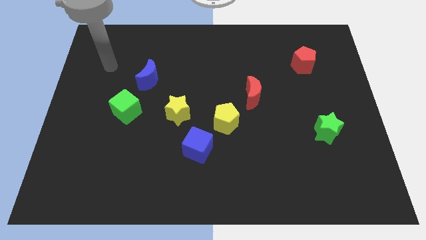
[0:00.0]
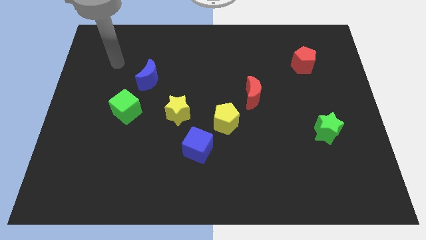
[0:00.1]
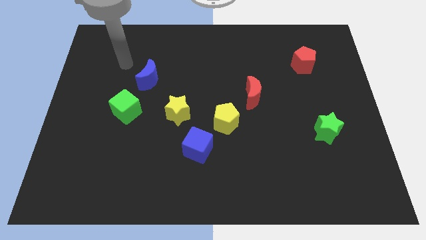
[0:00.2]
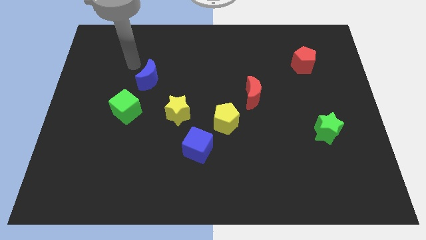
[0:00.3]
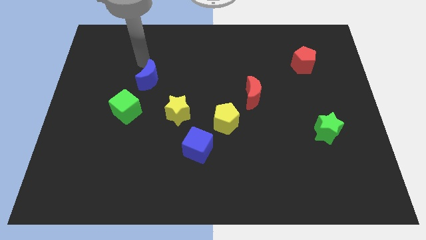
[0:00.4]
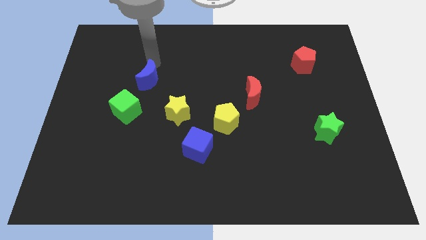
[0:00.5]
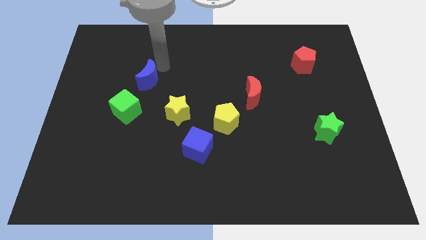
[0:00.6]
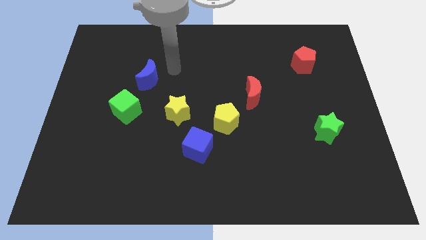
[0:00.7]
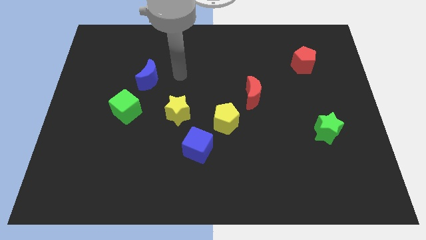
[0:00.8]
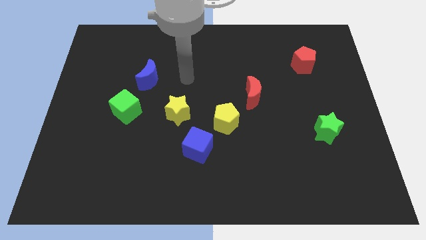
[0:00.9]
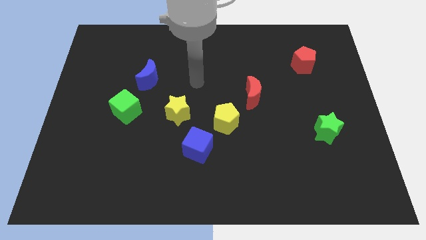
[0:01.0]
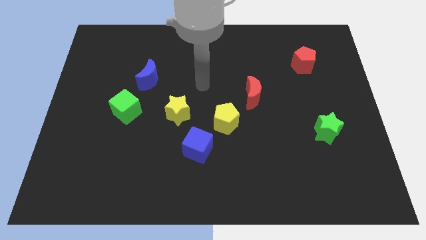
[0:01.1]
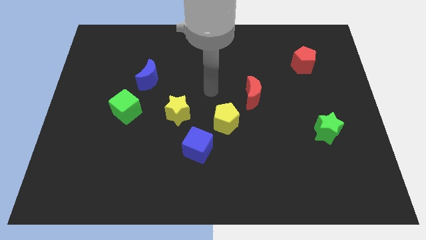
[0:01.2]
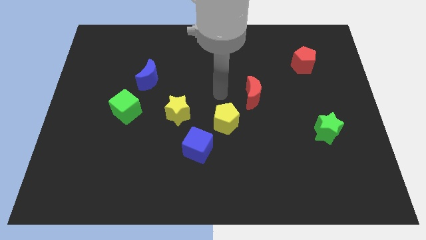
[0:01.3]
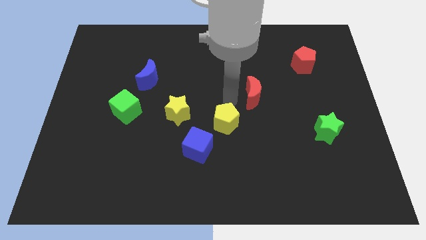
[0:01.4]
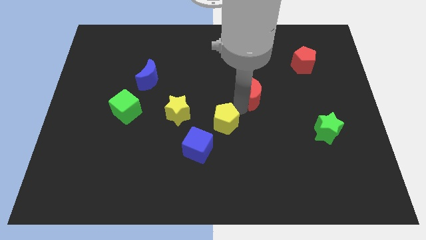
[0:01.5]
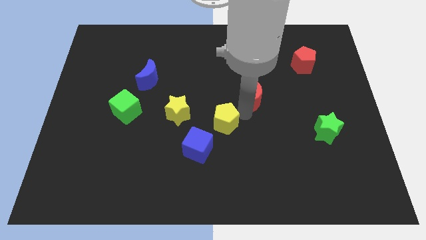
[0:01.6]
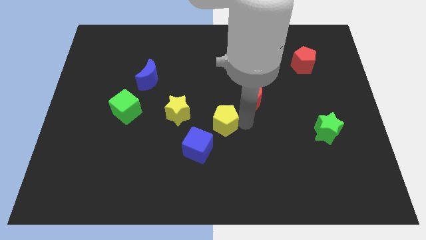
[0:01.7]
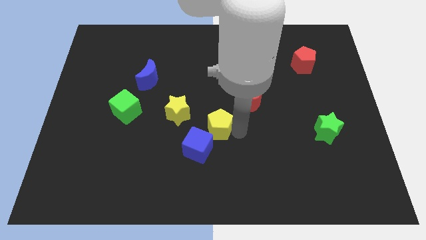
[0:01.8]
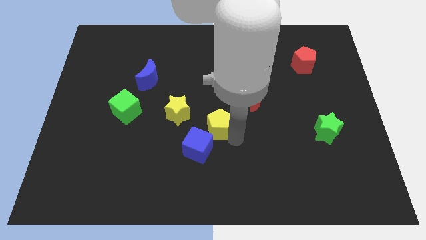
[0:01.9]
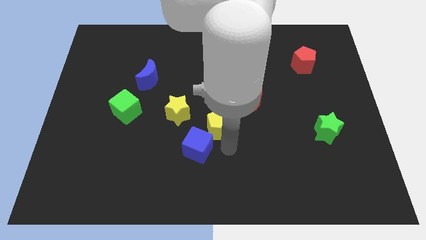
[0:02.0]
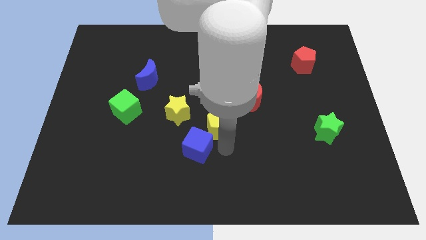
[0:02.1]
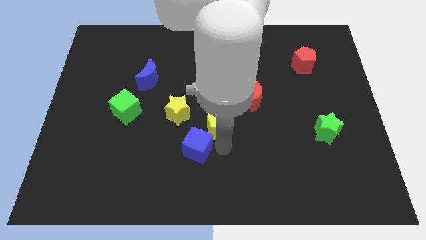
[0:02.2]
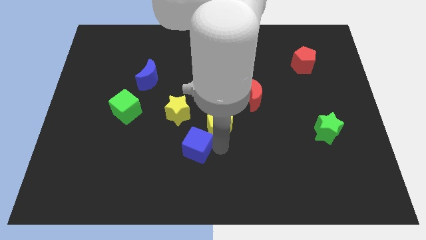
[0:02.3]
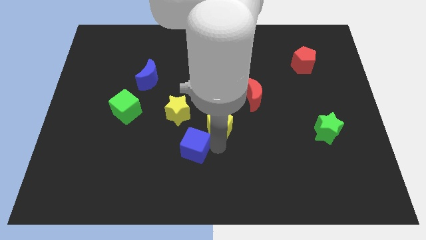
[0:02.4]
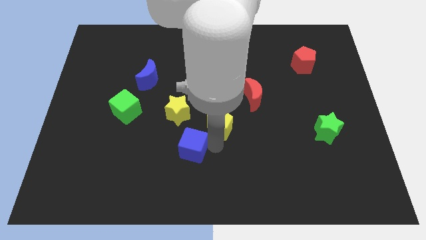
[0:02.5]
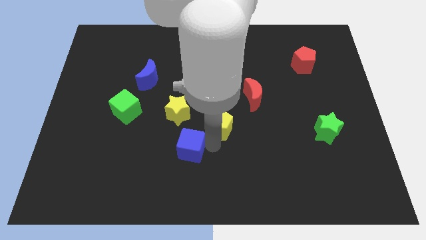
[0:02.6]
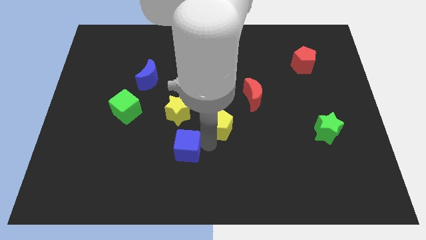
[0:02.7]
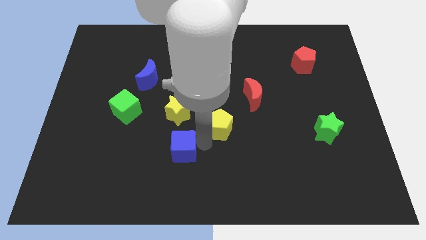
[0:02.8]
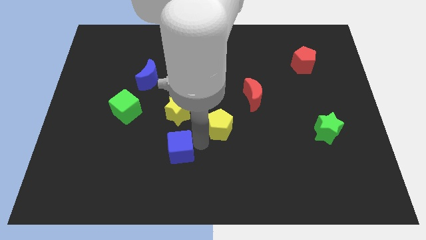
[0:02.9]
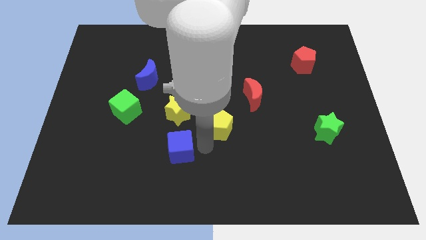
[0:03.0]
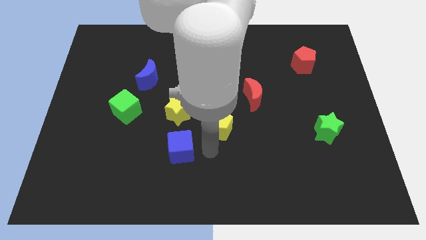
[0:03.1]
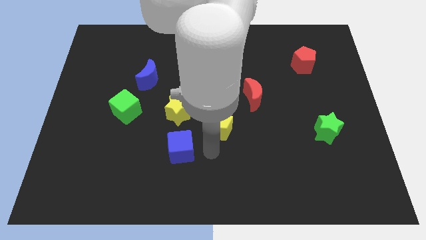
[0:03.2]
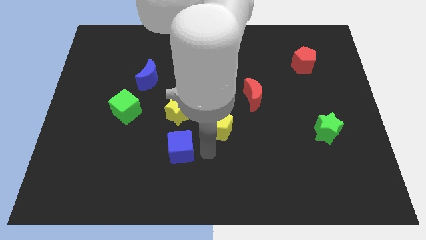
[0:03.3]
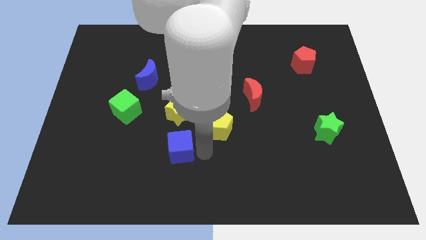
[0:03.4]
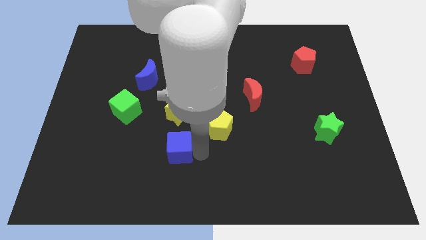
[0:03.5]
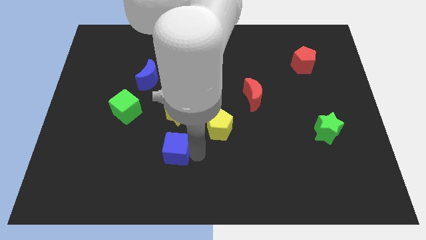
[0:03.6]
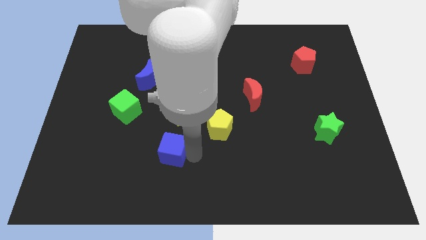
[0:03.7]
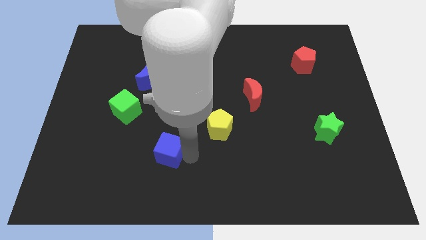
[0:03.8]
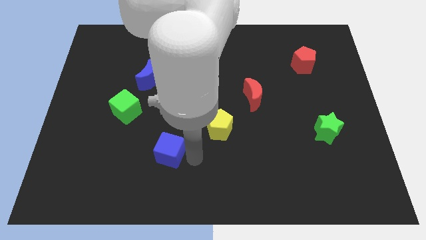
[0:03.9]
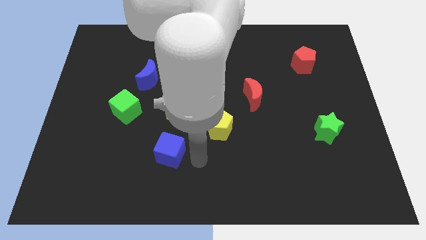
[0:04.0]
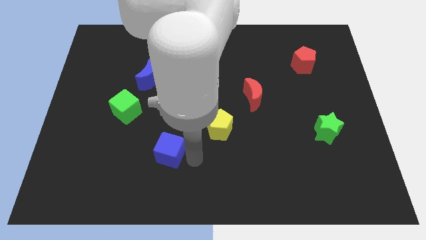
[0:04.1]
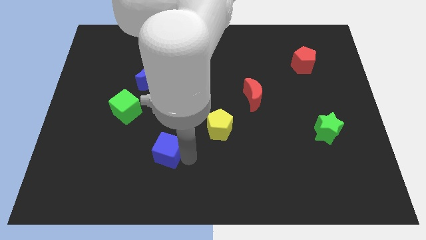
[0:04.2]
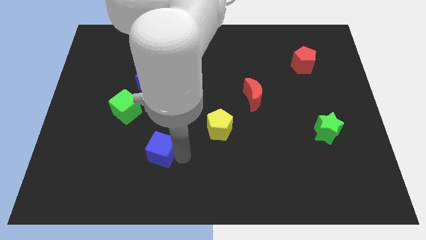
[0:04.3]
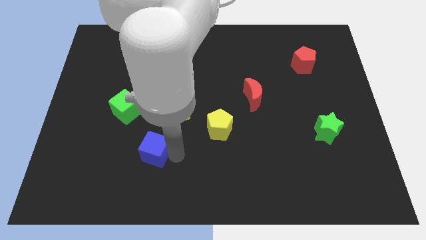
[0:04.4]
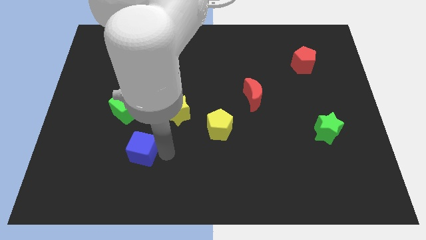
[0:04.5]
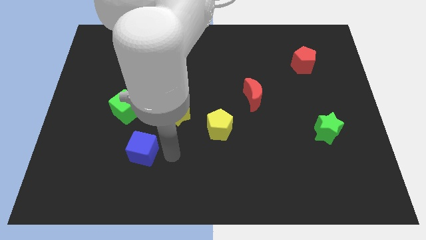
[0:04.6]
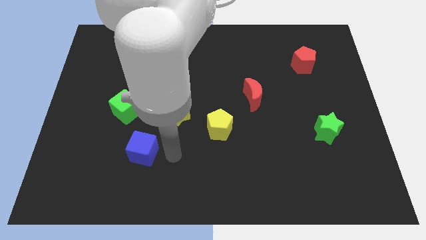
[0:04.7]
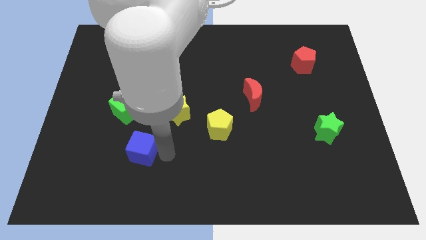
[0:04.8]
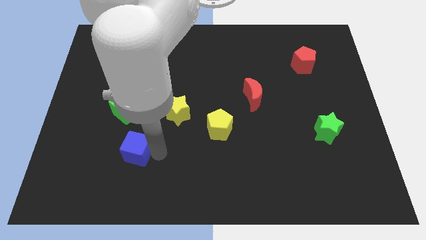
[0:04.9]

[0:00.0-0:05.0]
put the blue cube to the bottom side of the green cube

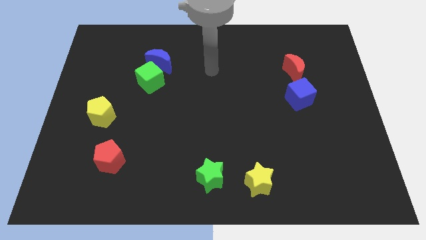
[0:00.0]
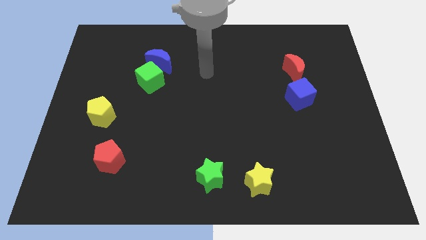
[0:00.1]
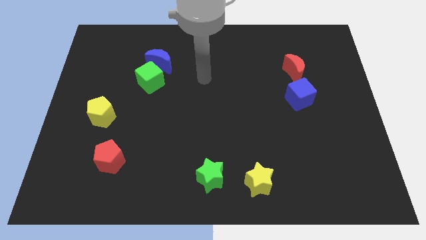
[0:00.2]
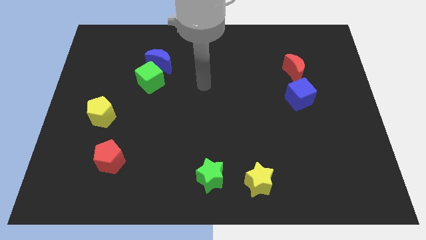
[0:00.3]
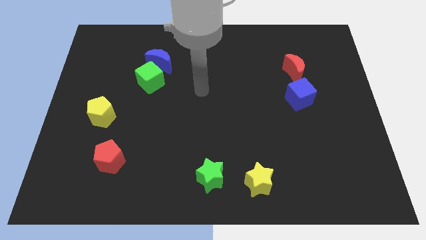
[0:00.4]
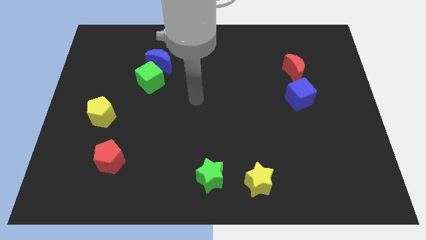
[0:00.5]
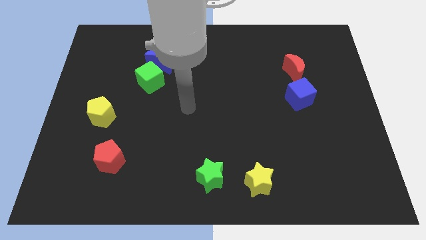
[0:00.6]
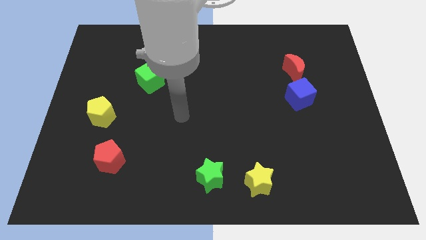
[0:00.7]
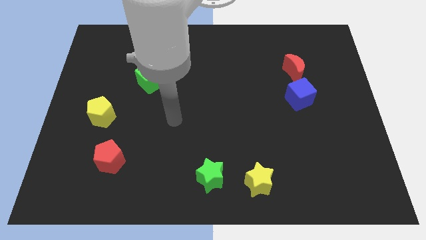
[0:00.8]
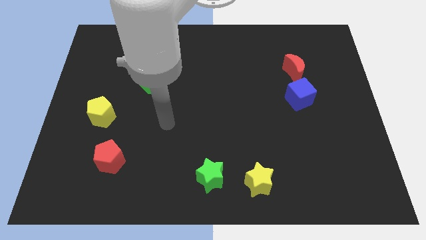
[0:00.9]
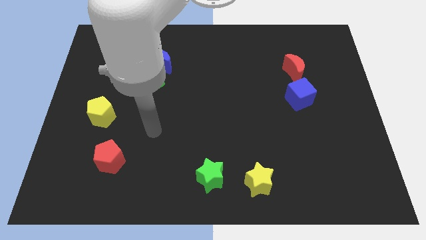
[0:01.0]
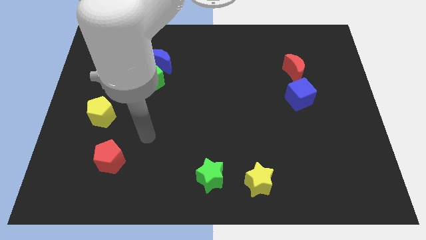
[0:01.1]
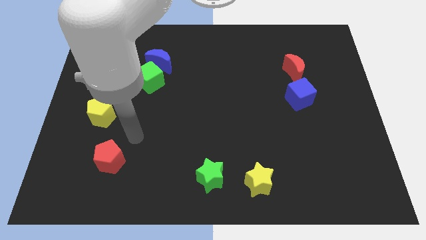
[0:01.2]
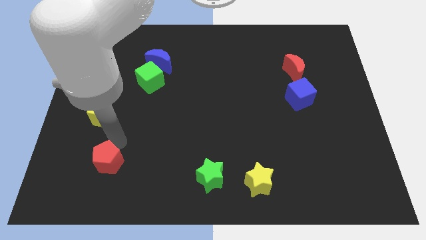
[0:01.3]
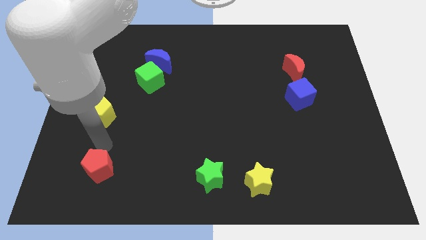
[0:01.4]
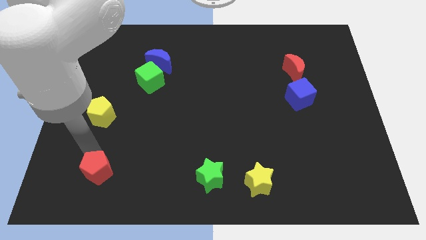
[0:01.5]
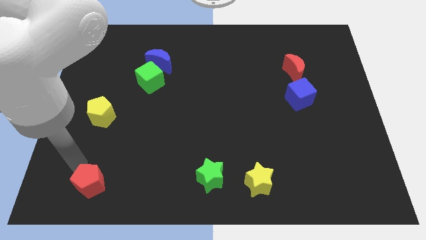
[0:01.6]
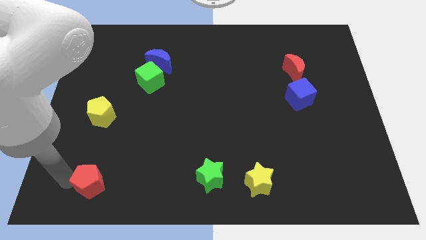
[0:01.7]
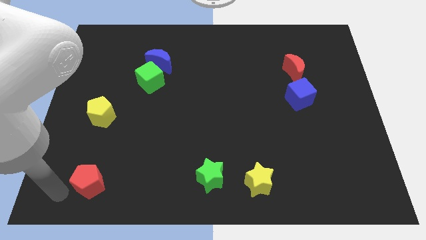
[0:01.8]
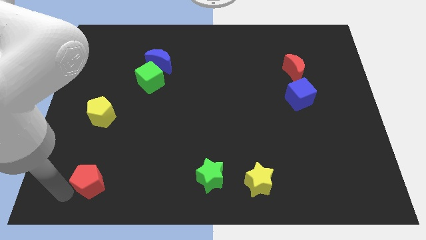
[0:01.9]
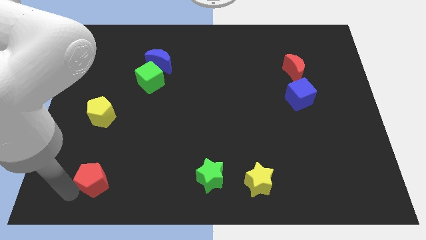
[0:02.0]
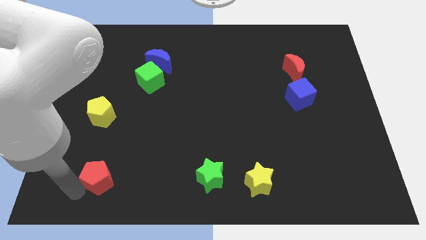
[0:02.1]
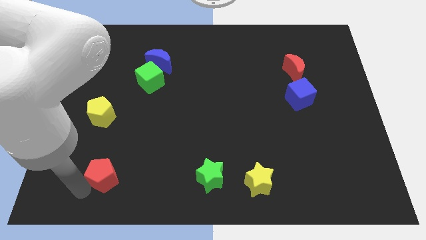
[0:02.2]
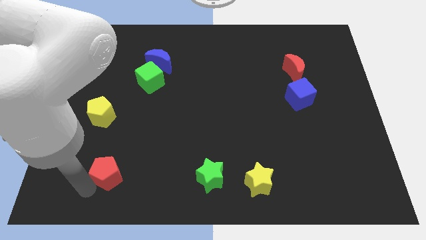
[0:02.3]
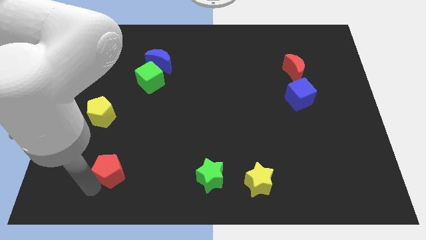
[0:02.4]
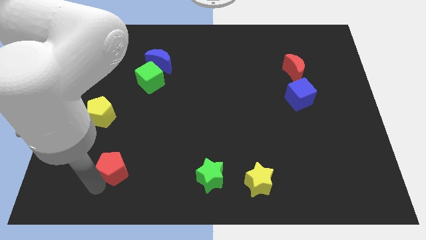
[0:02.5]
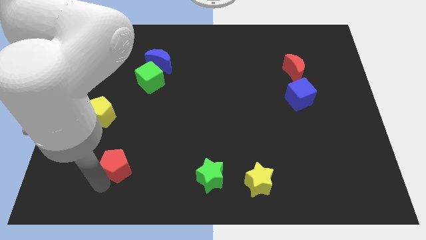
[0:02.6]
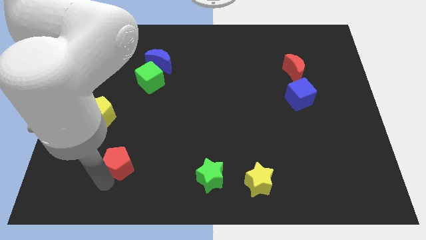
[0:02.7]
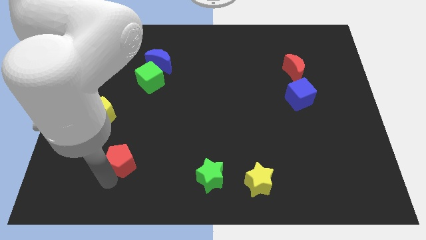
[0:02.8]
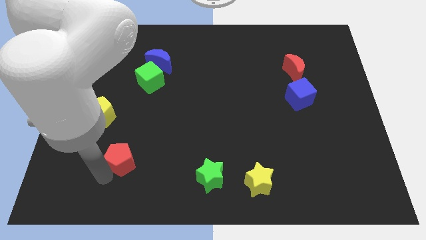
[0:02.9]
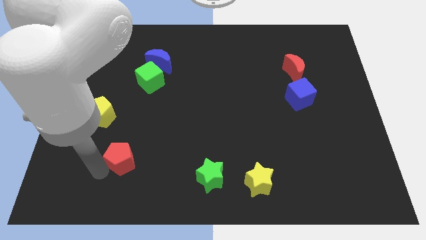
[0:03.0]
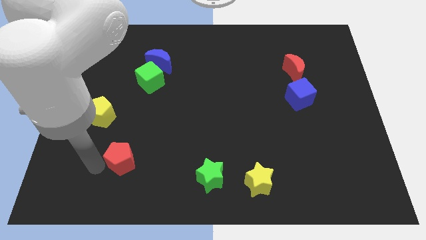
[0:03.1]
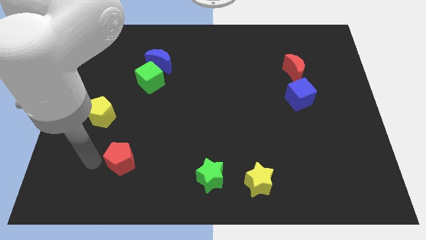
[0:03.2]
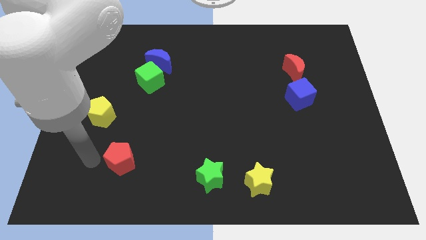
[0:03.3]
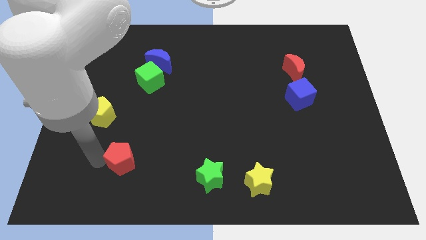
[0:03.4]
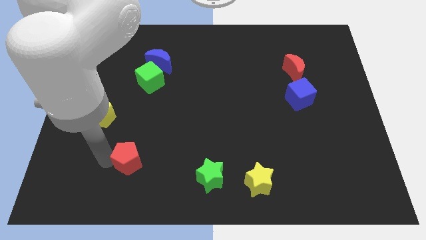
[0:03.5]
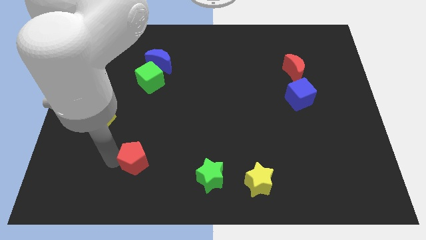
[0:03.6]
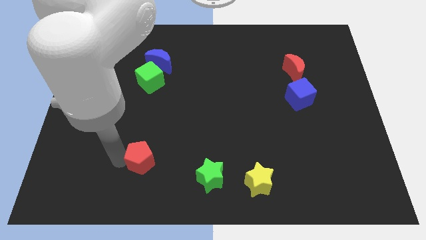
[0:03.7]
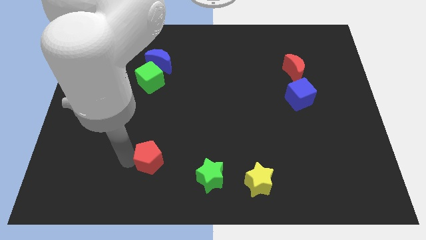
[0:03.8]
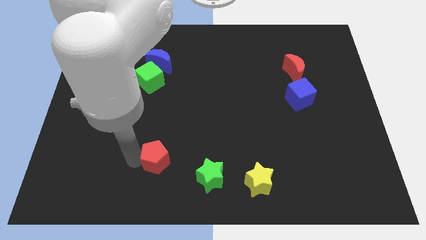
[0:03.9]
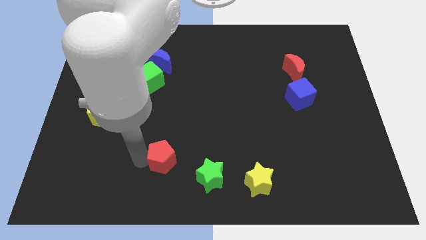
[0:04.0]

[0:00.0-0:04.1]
move the red pentagon to the top left side of the green star
